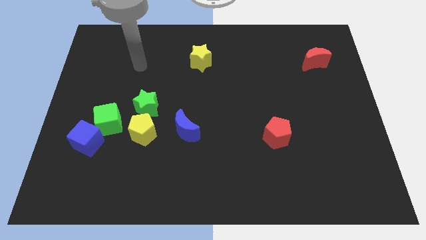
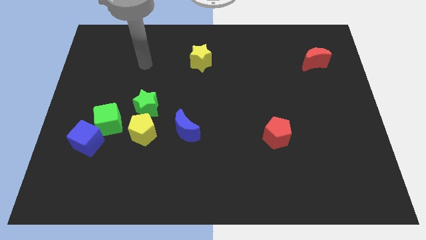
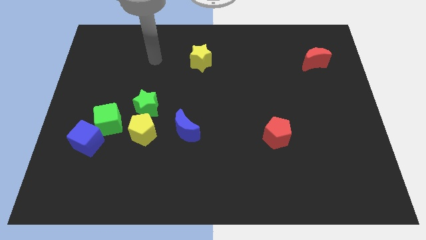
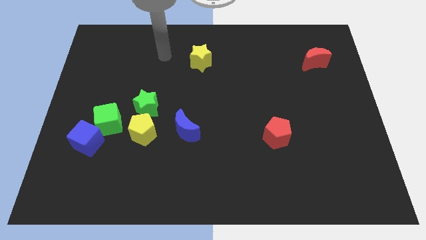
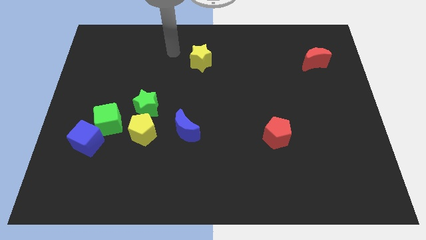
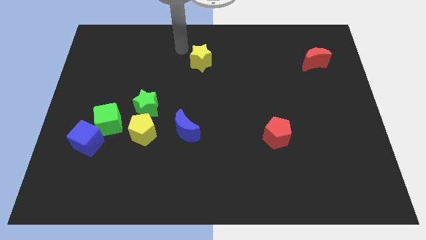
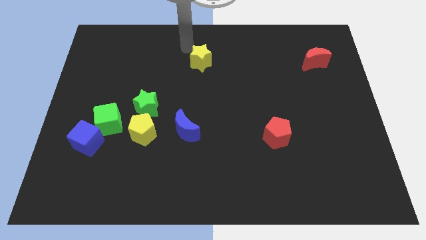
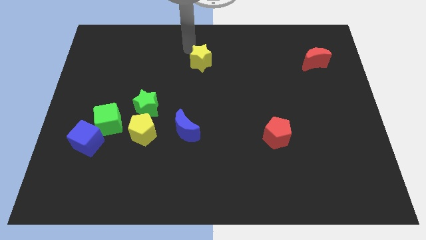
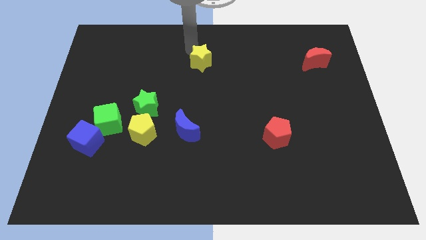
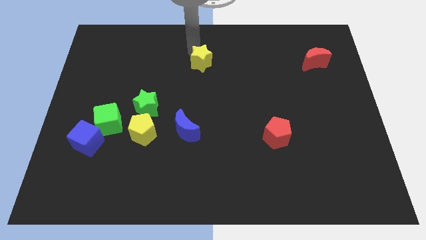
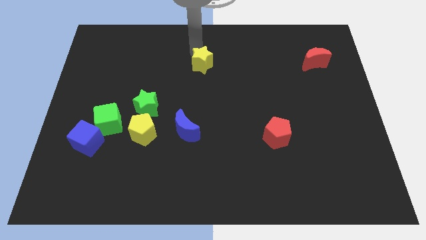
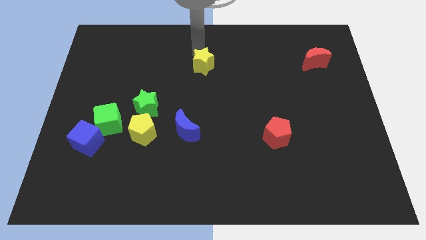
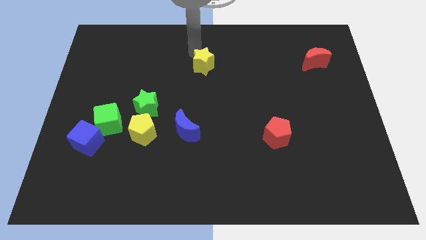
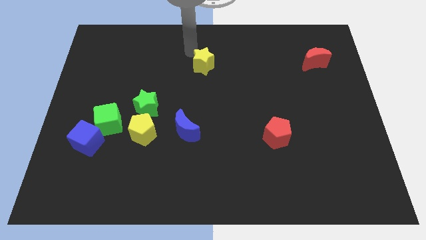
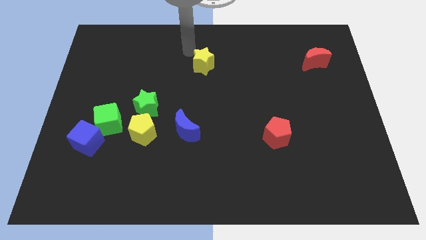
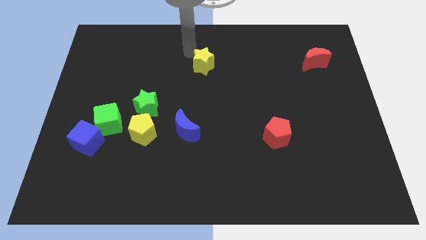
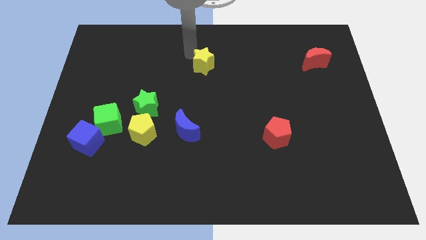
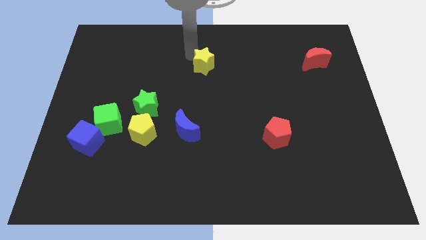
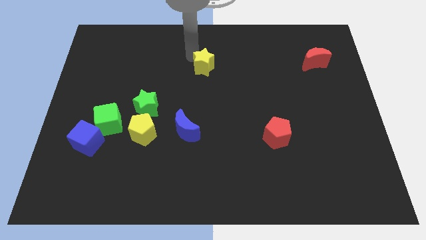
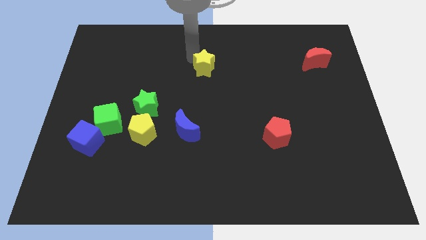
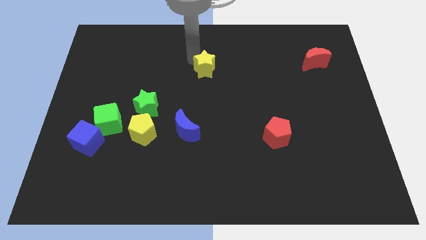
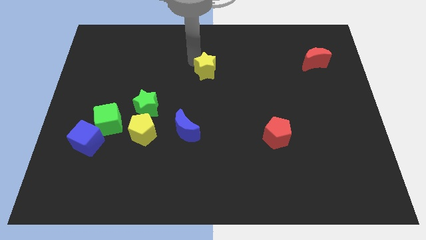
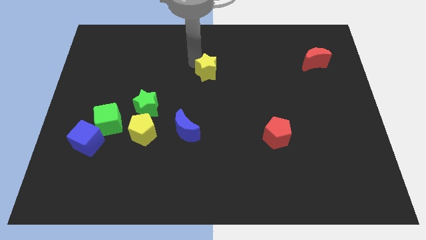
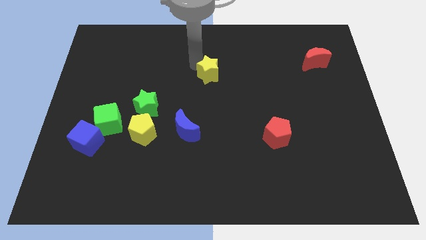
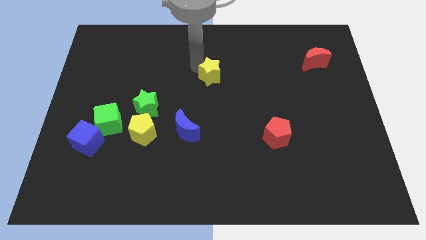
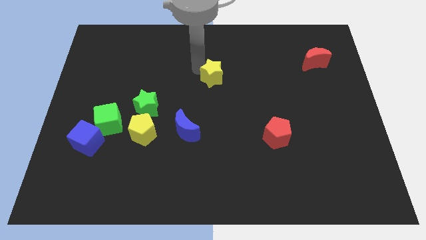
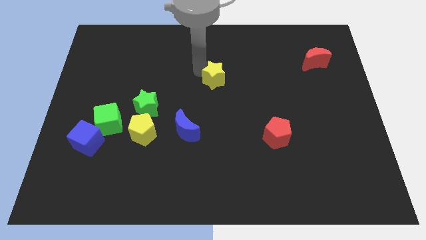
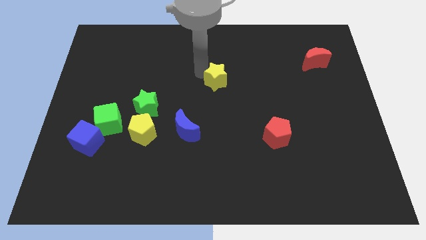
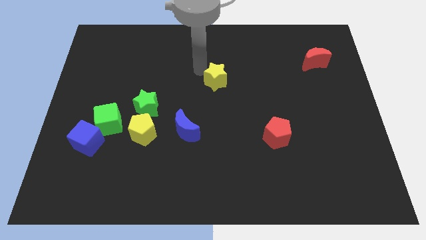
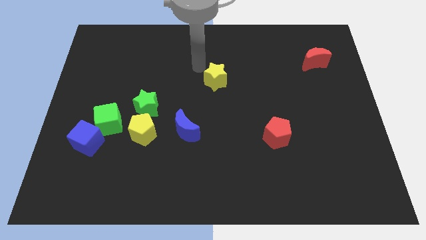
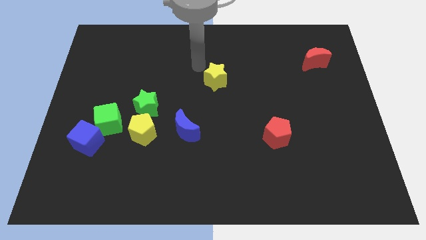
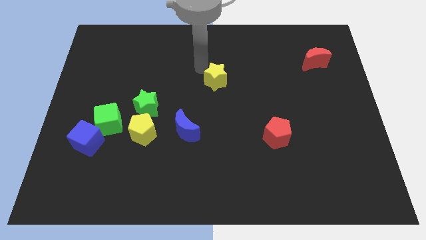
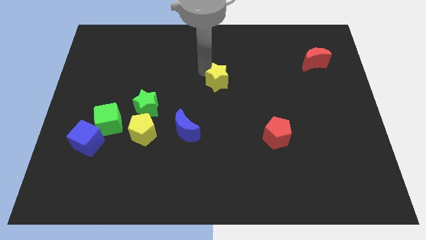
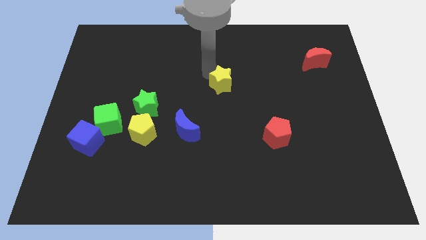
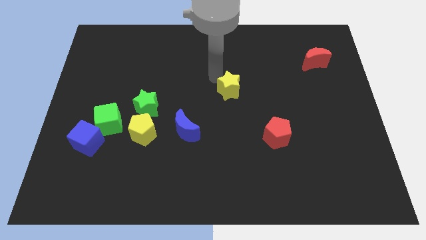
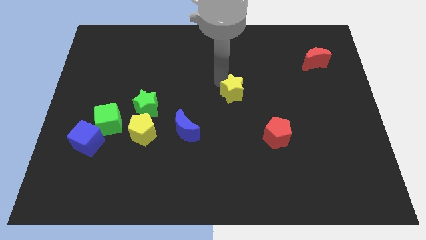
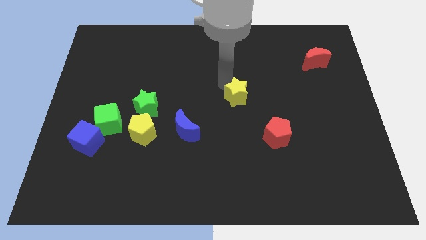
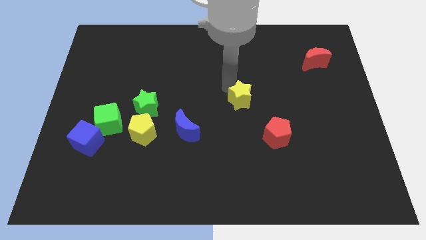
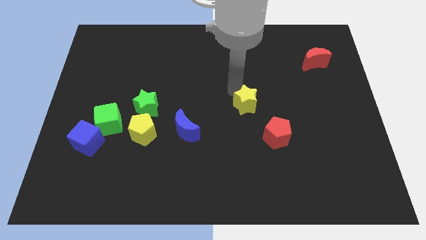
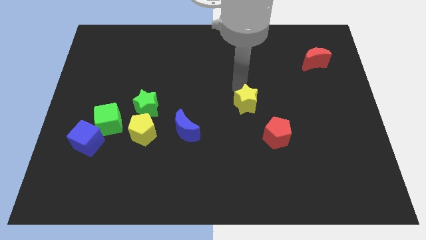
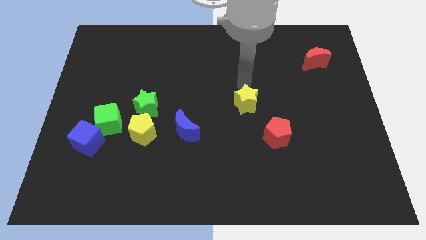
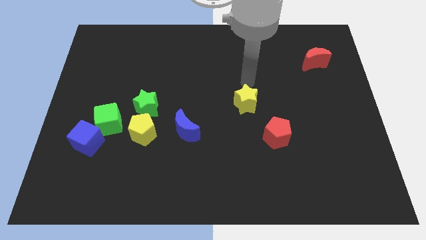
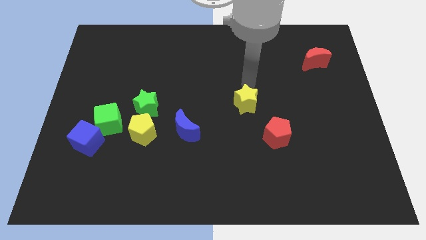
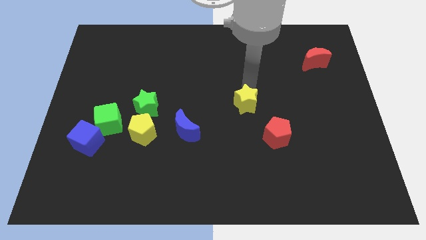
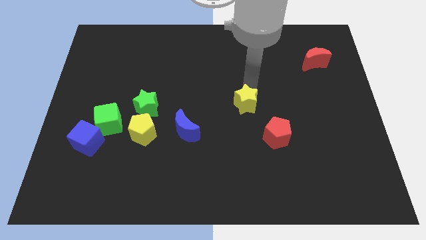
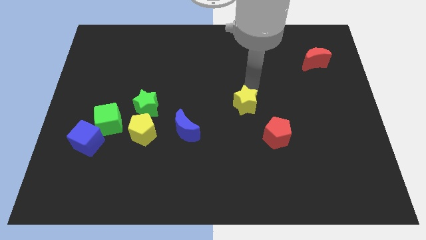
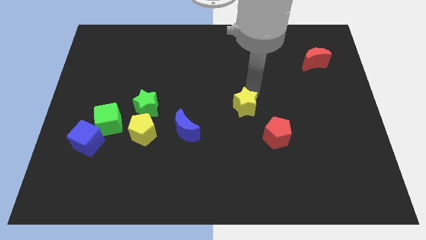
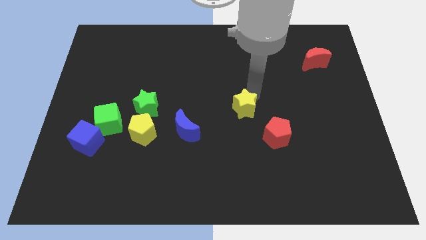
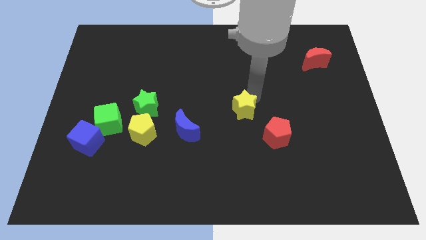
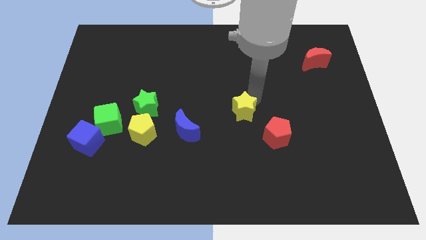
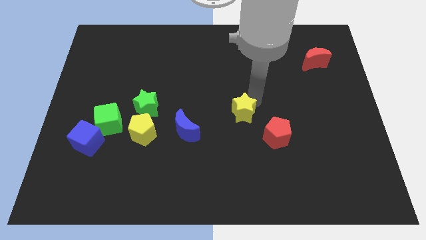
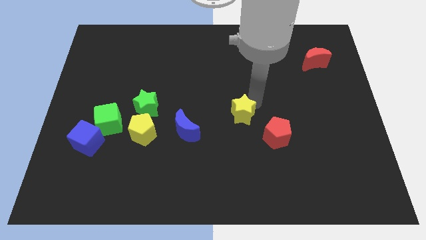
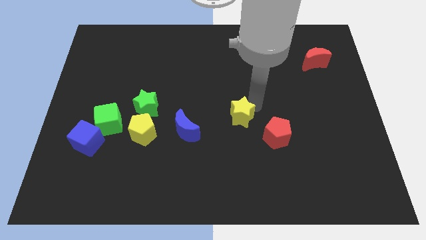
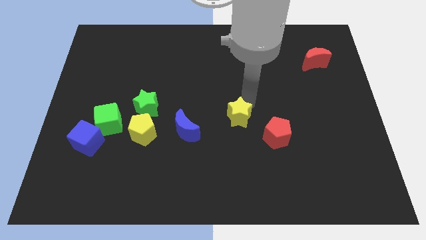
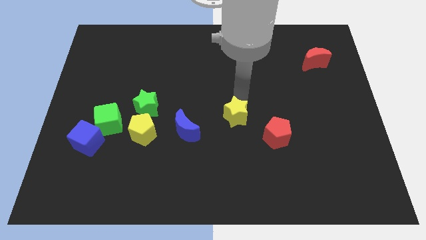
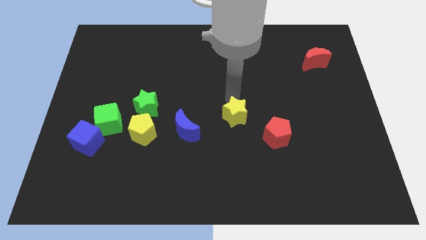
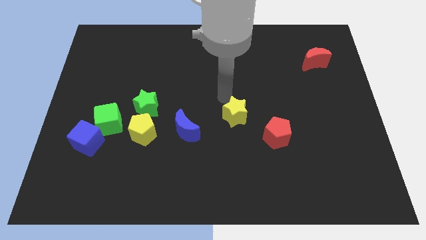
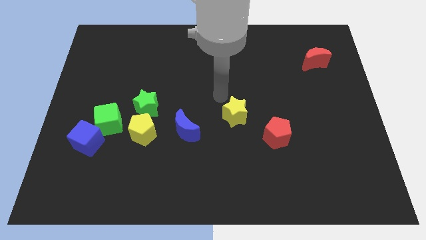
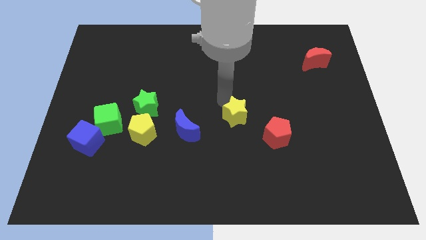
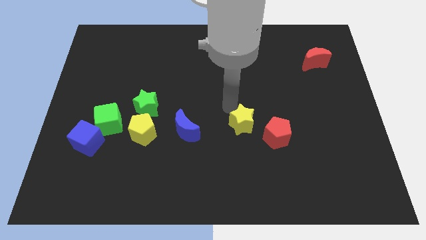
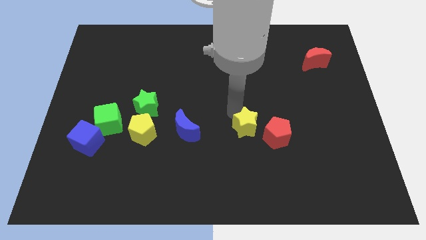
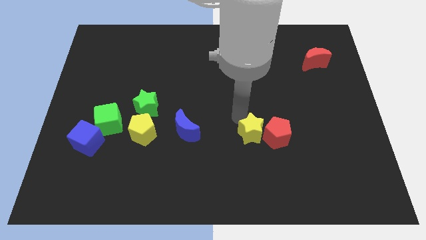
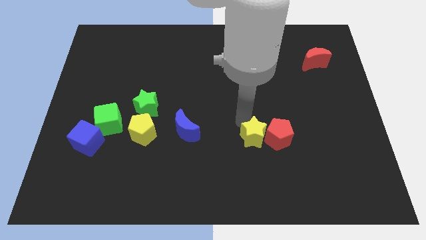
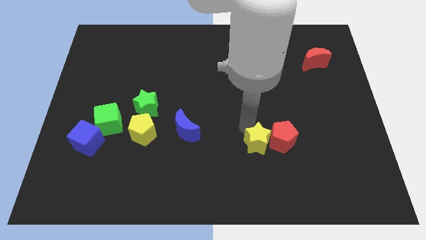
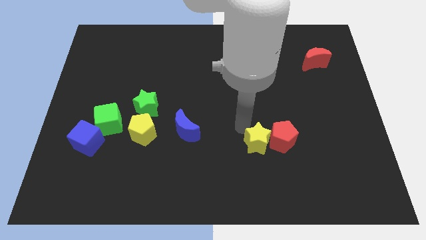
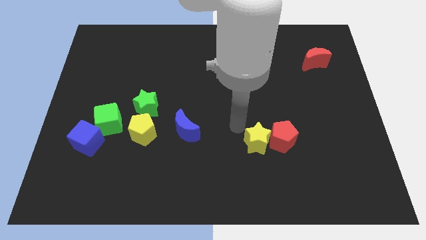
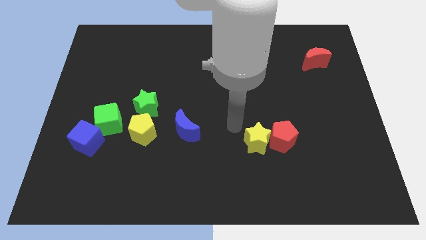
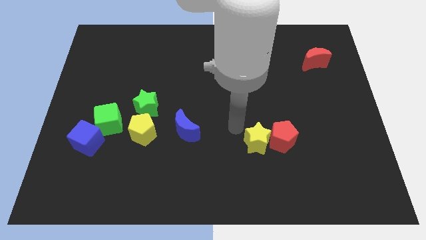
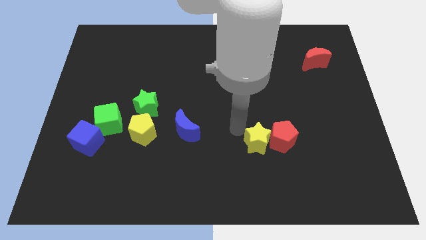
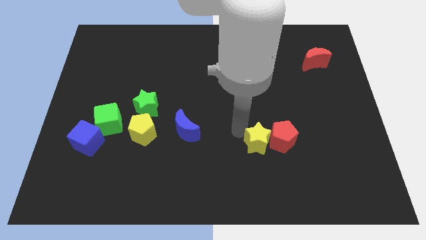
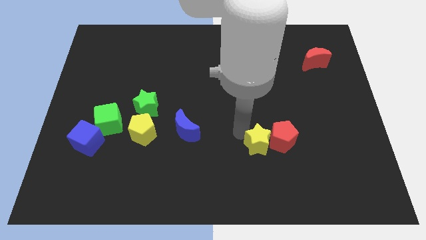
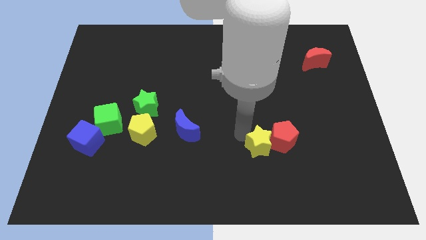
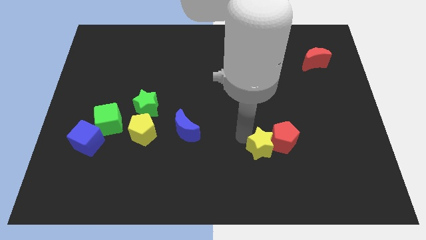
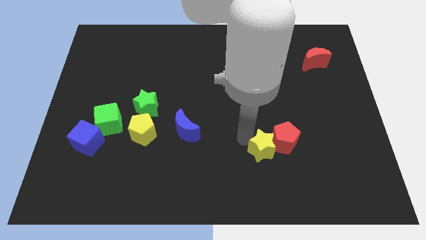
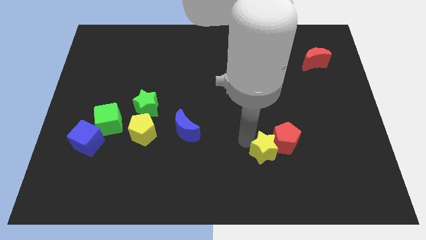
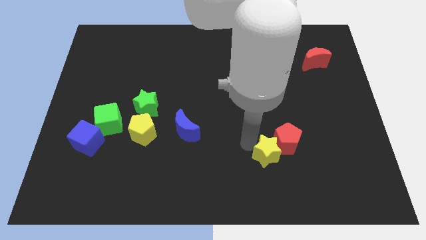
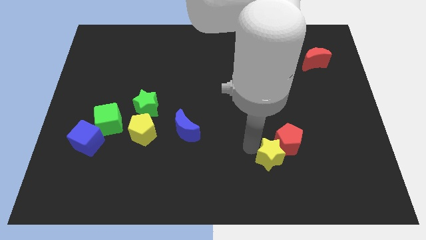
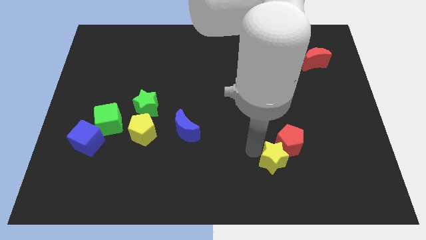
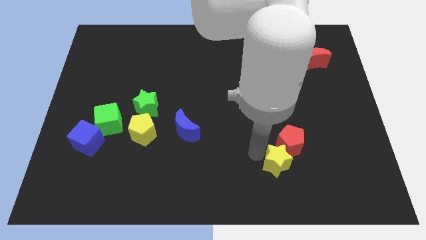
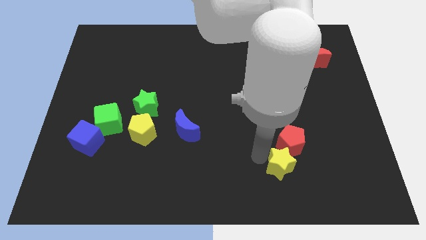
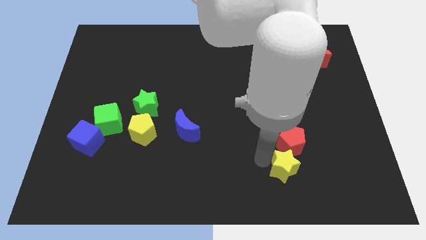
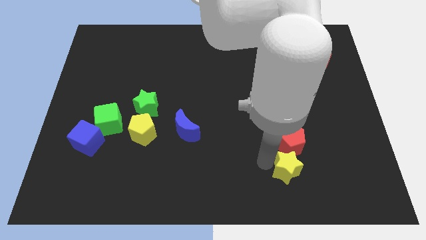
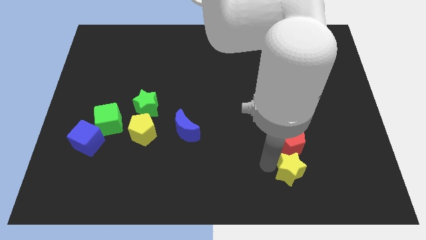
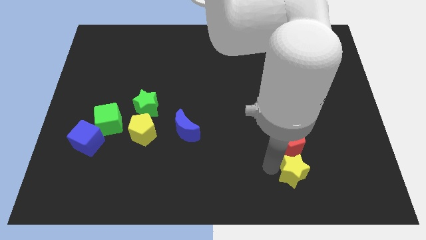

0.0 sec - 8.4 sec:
move the yellow star to the bottom right side of the red pentagon
